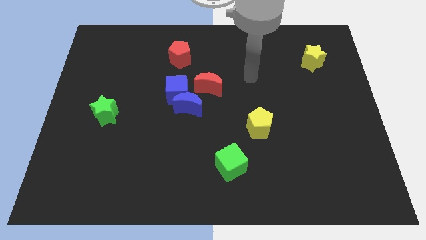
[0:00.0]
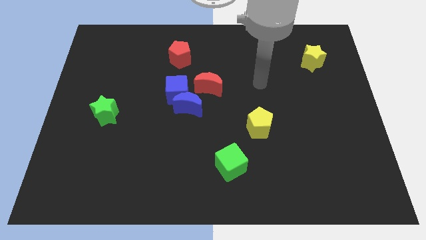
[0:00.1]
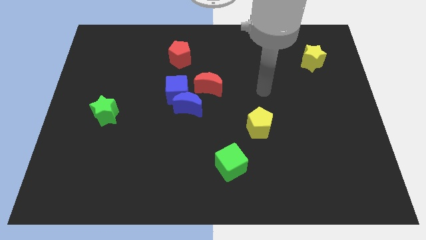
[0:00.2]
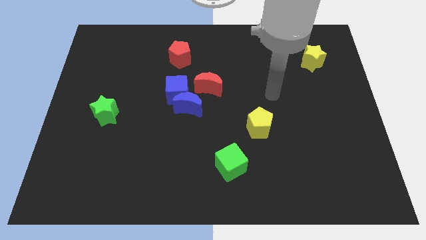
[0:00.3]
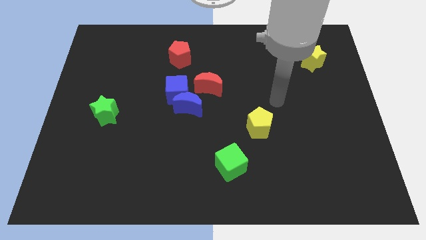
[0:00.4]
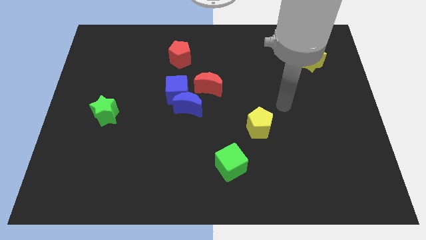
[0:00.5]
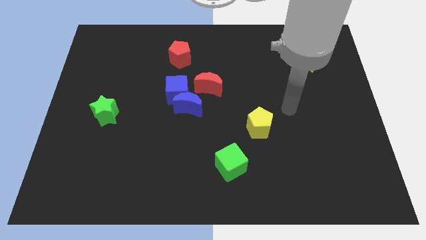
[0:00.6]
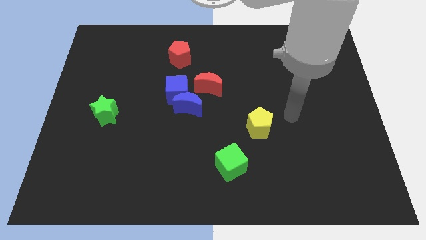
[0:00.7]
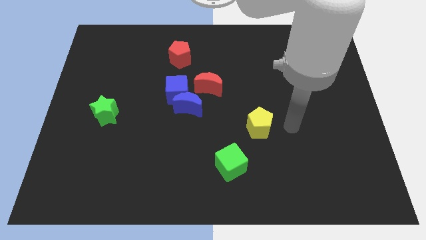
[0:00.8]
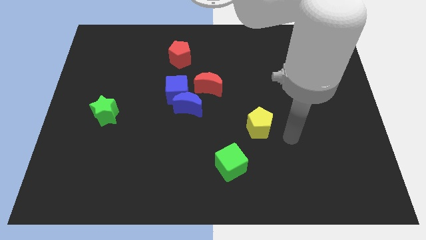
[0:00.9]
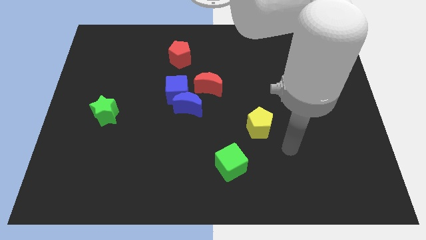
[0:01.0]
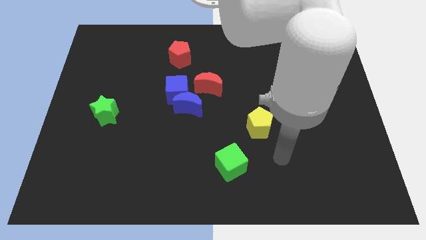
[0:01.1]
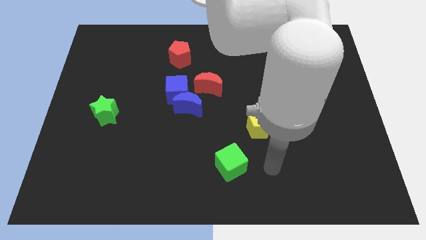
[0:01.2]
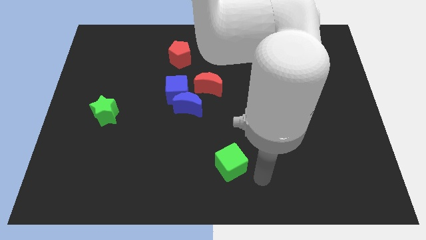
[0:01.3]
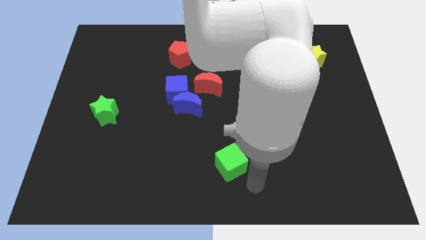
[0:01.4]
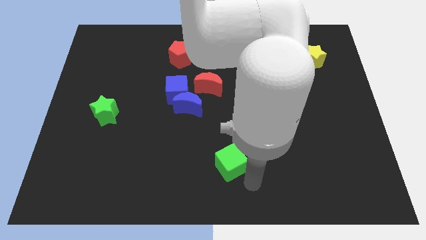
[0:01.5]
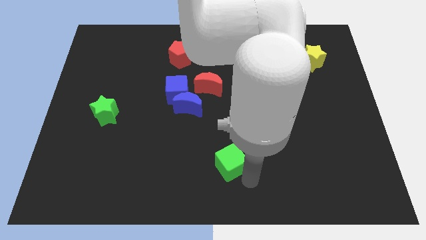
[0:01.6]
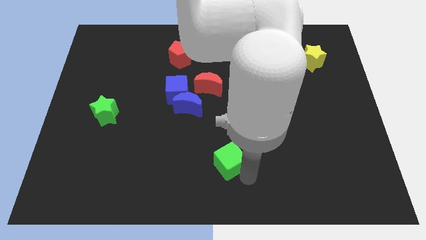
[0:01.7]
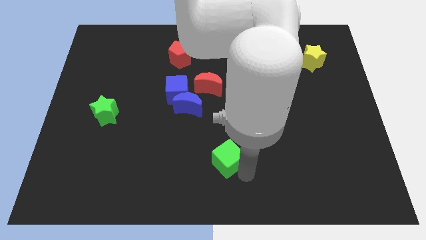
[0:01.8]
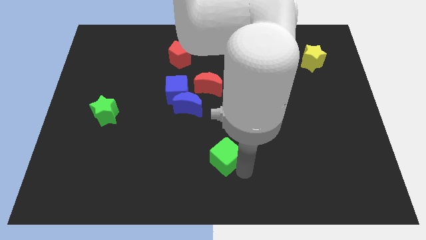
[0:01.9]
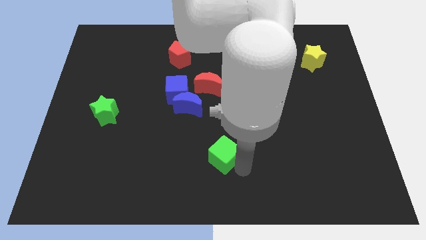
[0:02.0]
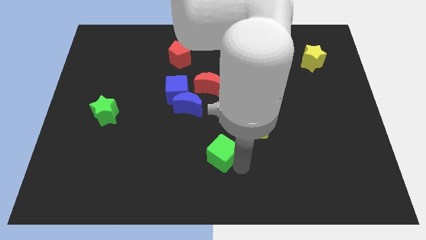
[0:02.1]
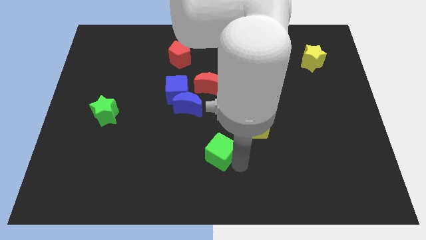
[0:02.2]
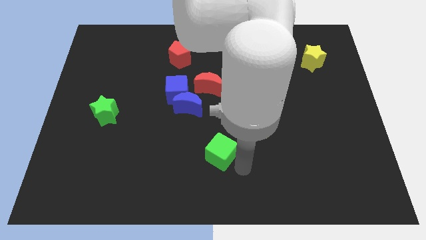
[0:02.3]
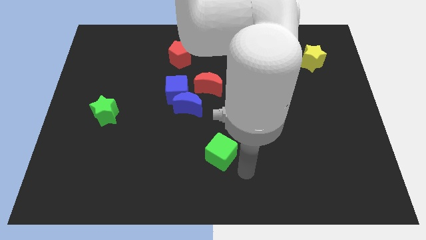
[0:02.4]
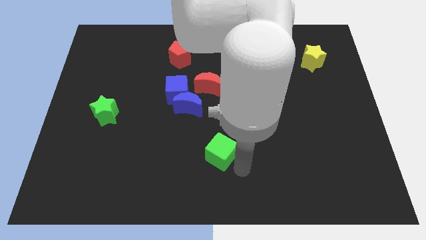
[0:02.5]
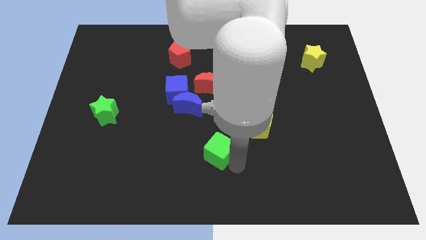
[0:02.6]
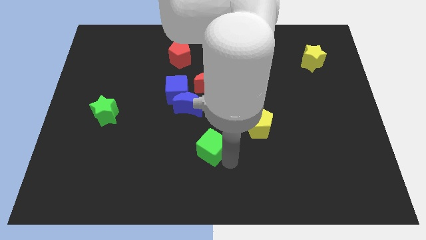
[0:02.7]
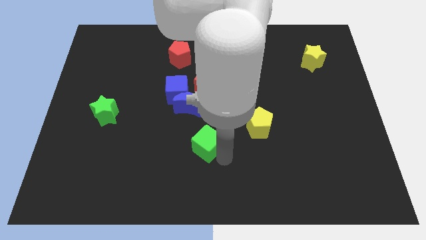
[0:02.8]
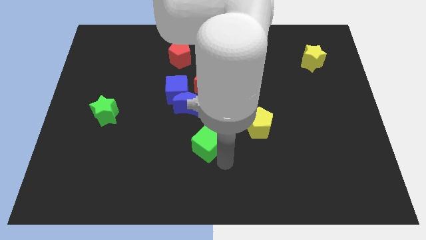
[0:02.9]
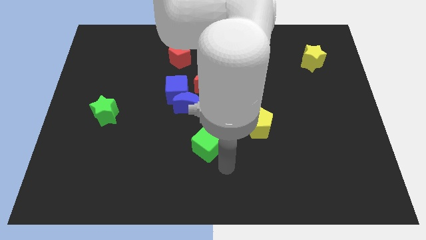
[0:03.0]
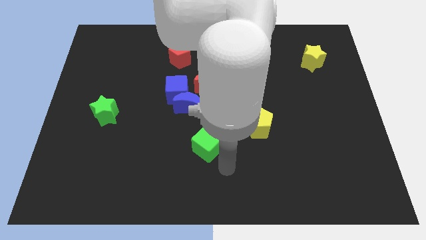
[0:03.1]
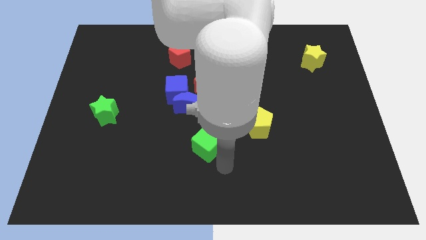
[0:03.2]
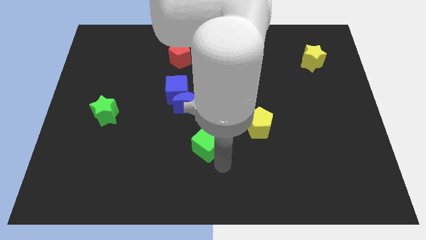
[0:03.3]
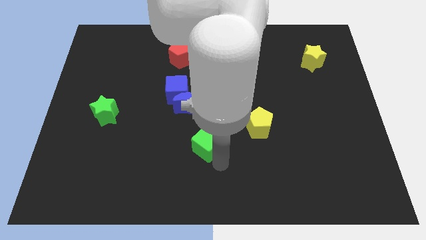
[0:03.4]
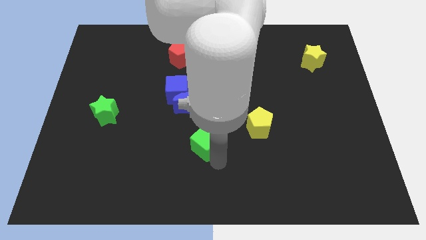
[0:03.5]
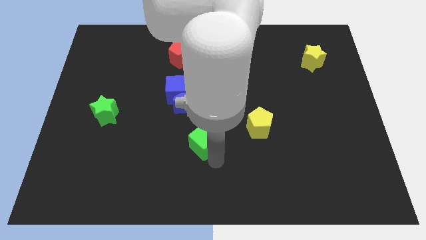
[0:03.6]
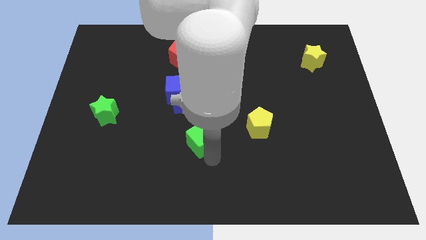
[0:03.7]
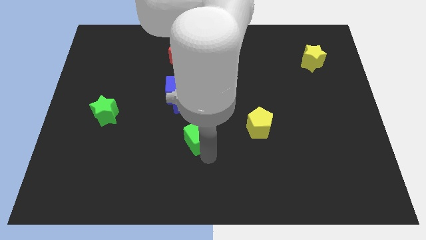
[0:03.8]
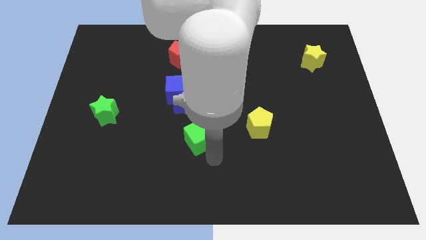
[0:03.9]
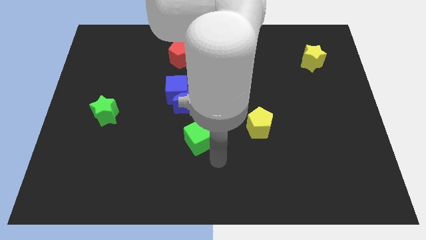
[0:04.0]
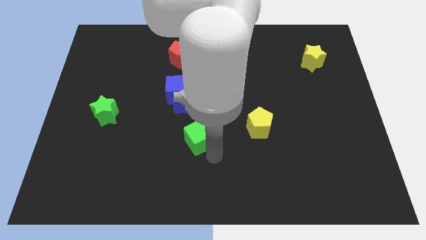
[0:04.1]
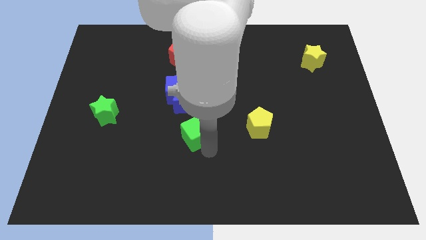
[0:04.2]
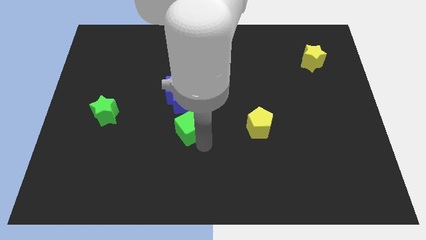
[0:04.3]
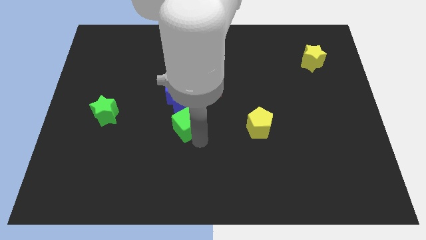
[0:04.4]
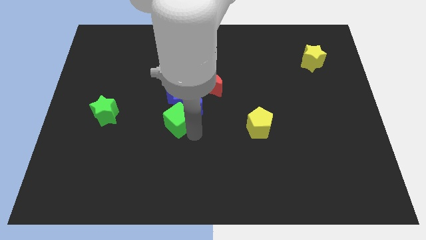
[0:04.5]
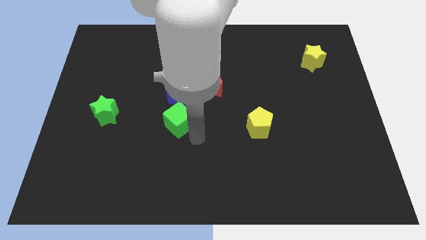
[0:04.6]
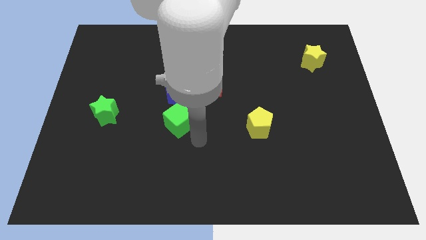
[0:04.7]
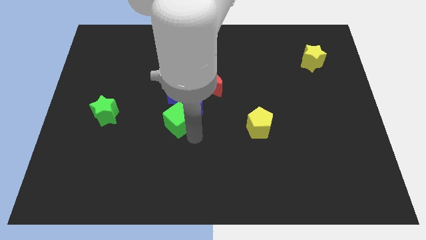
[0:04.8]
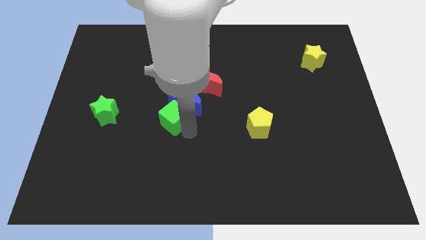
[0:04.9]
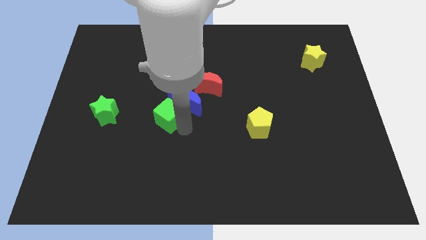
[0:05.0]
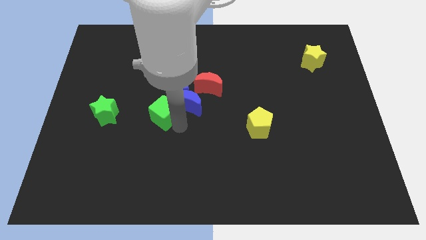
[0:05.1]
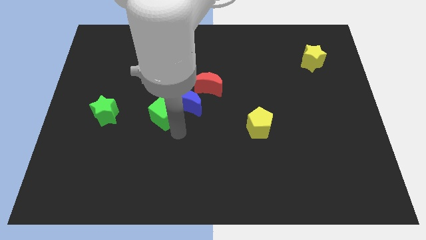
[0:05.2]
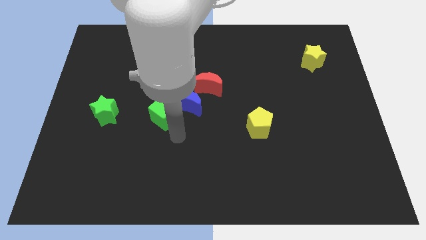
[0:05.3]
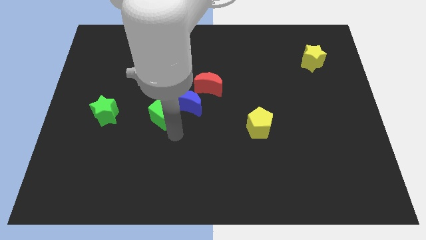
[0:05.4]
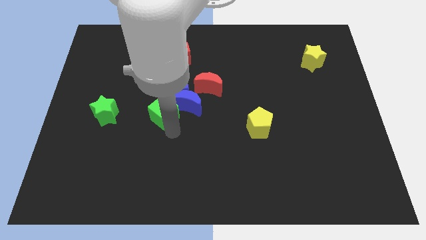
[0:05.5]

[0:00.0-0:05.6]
slide the green cube up and then to the left

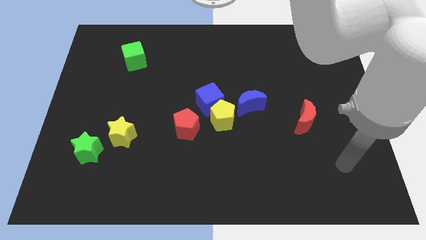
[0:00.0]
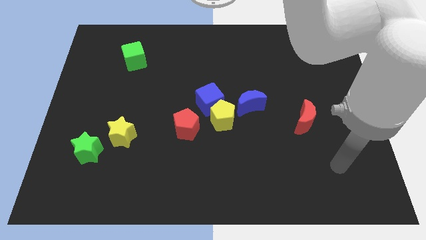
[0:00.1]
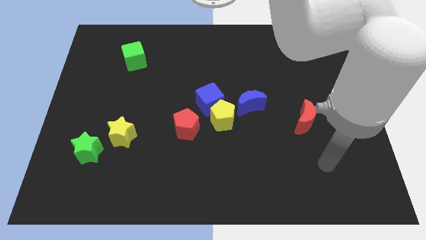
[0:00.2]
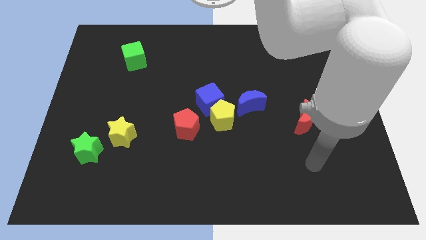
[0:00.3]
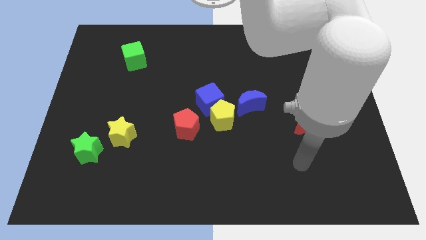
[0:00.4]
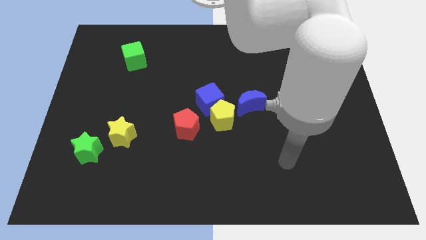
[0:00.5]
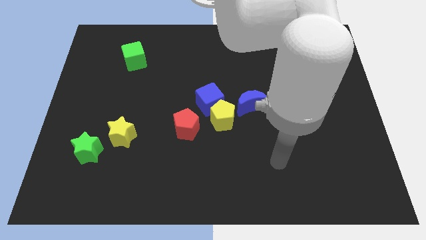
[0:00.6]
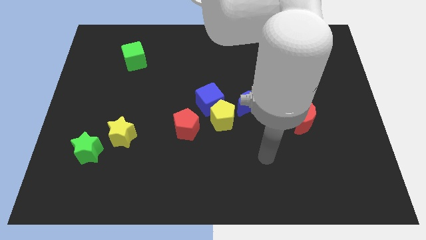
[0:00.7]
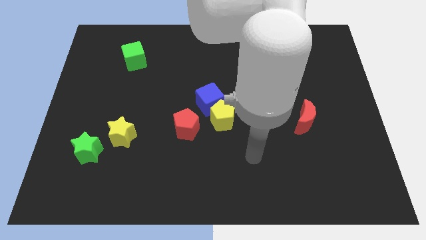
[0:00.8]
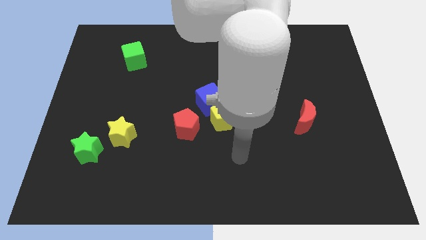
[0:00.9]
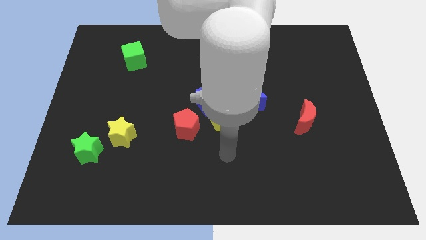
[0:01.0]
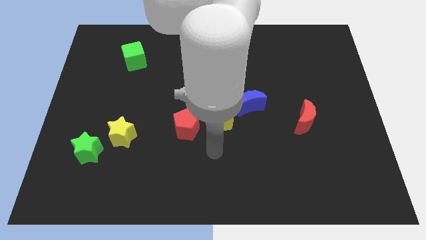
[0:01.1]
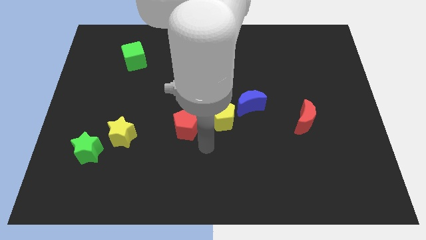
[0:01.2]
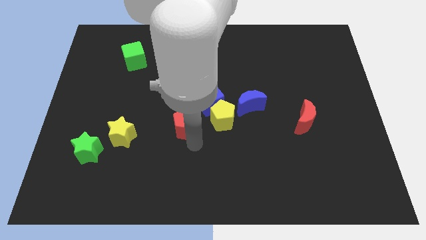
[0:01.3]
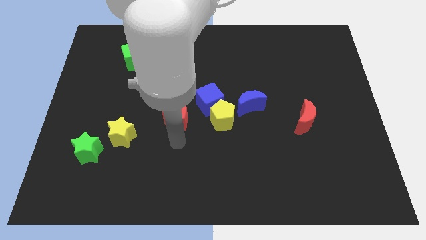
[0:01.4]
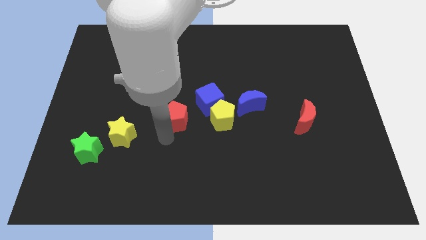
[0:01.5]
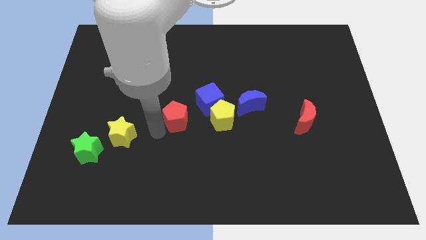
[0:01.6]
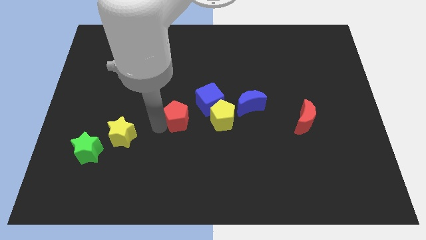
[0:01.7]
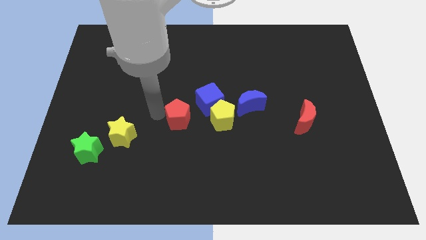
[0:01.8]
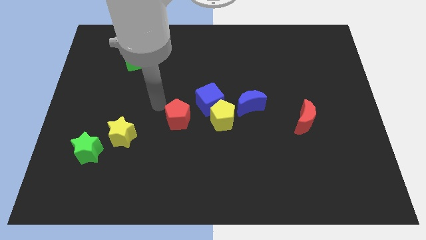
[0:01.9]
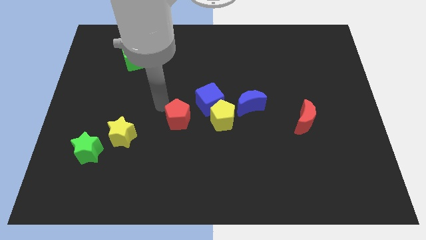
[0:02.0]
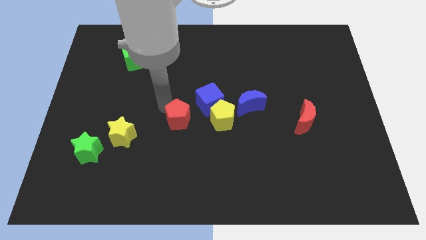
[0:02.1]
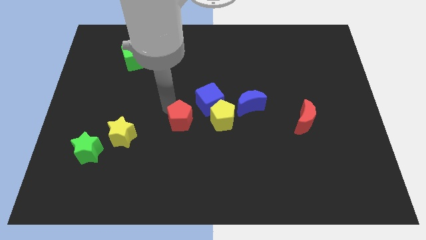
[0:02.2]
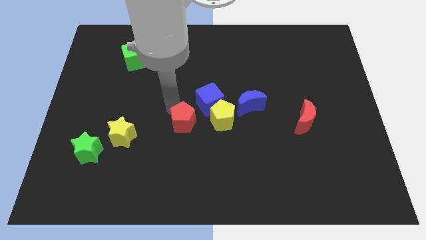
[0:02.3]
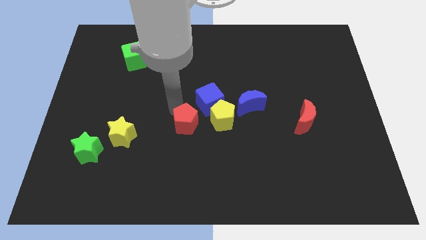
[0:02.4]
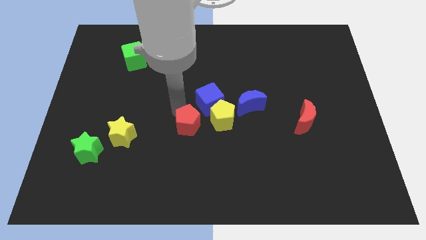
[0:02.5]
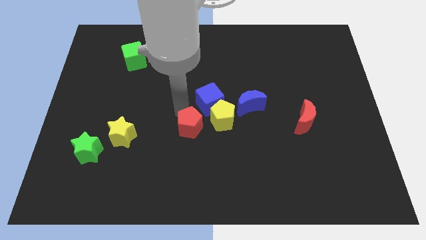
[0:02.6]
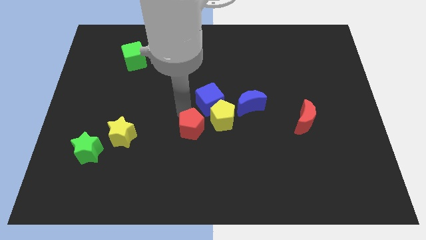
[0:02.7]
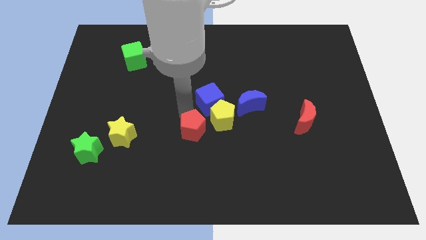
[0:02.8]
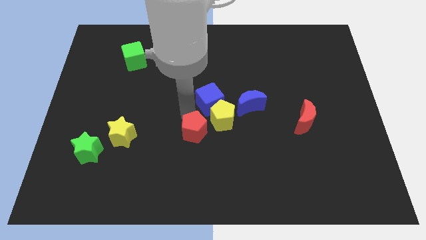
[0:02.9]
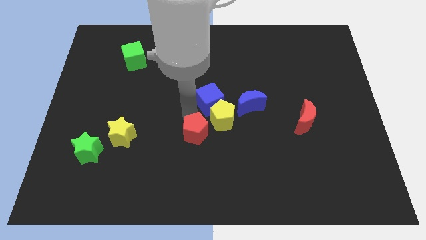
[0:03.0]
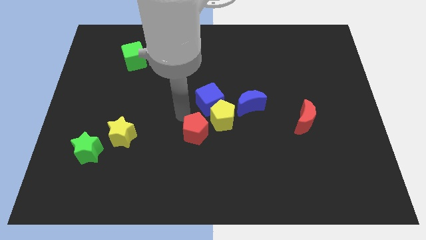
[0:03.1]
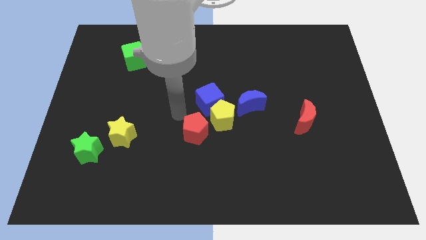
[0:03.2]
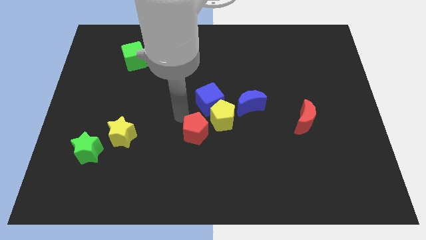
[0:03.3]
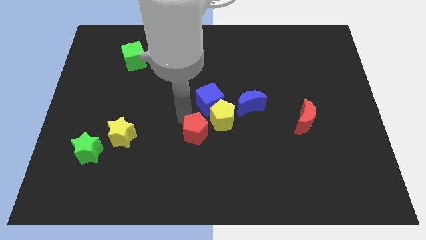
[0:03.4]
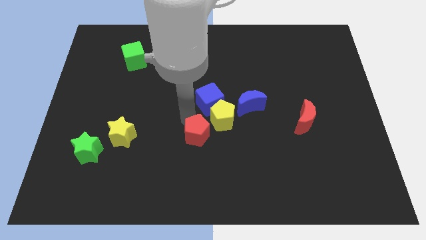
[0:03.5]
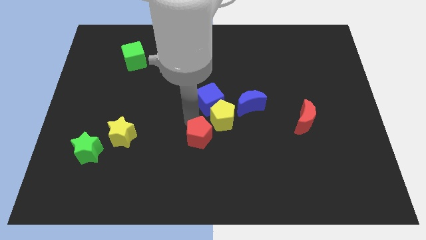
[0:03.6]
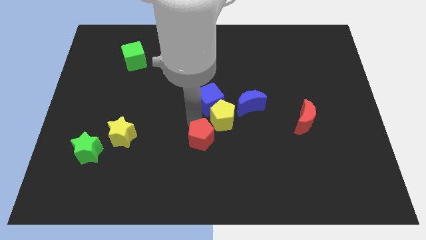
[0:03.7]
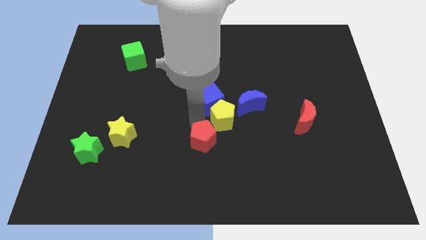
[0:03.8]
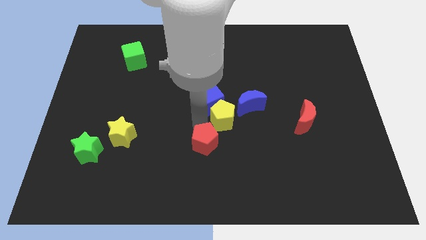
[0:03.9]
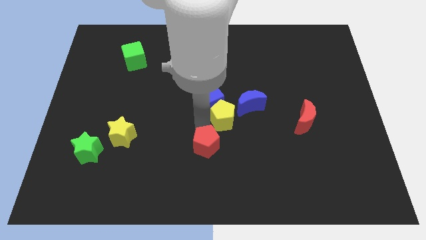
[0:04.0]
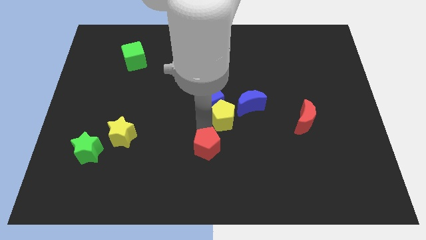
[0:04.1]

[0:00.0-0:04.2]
slide the red pentagon downwards and then right somewhat
